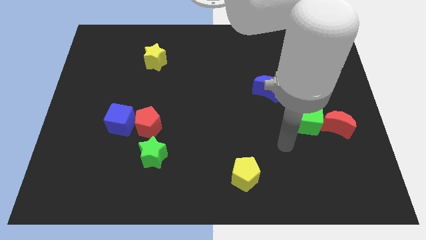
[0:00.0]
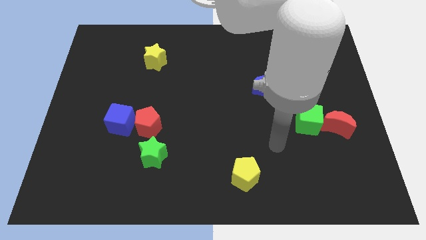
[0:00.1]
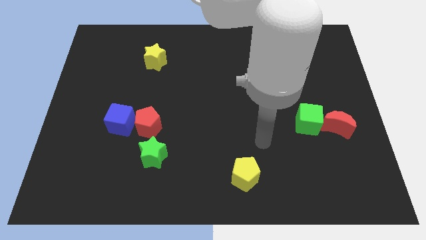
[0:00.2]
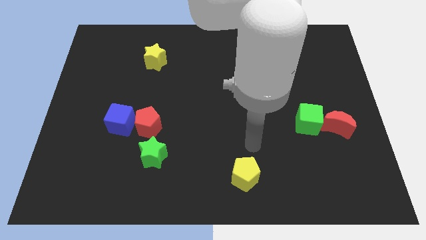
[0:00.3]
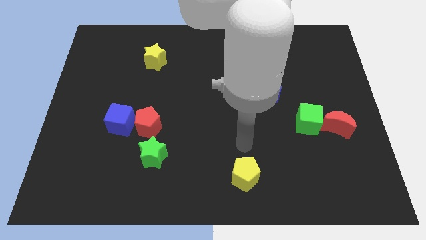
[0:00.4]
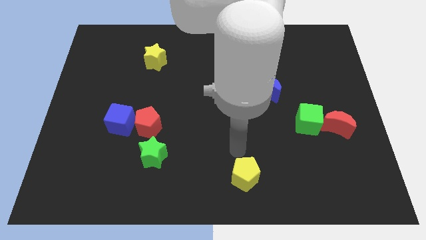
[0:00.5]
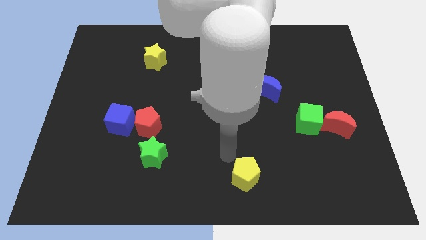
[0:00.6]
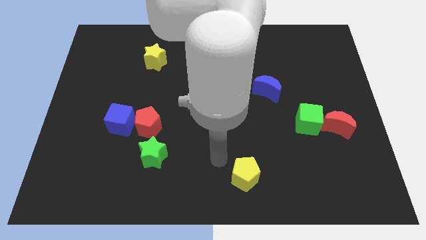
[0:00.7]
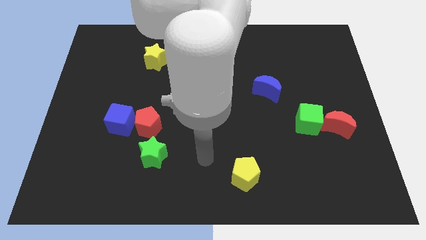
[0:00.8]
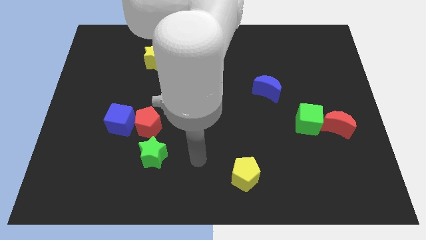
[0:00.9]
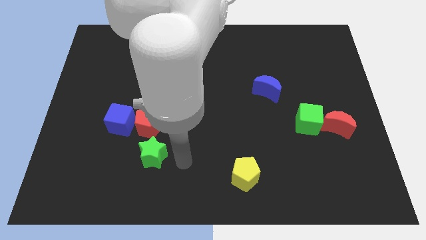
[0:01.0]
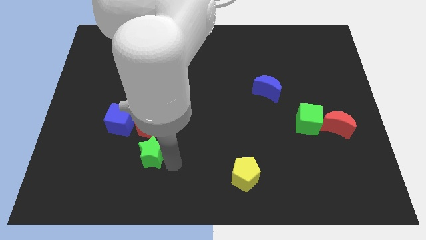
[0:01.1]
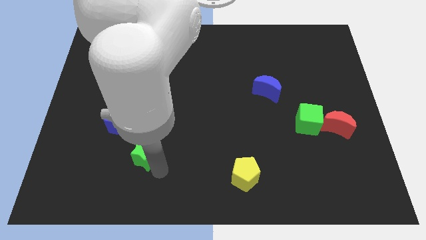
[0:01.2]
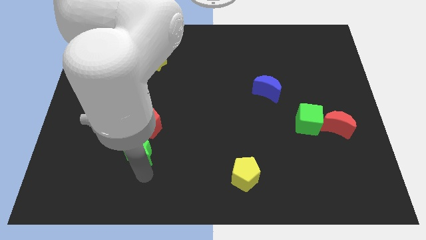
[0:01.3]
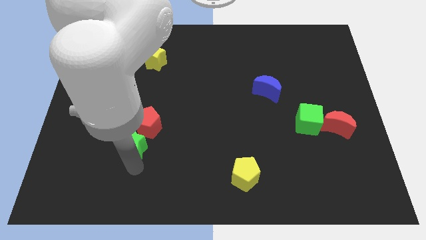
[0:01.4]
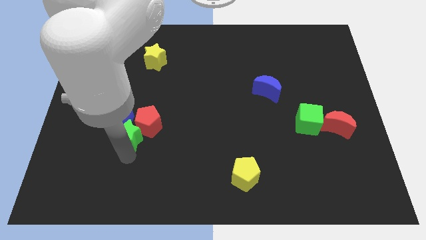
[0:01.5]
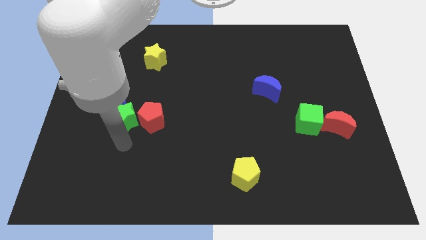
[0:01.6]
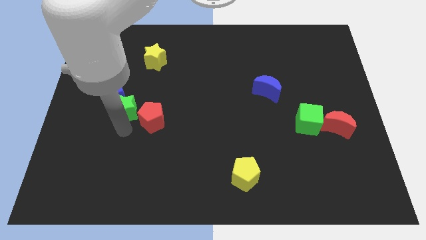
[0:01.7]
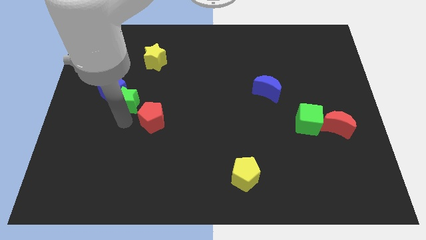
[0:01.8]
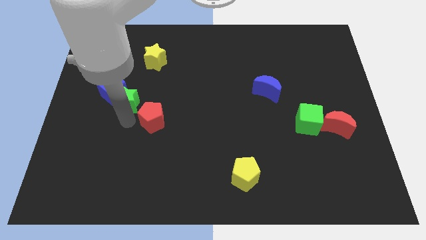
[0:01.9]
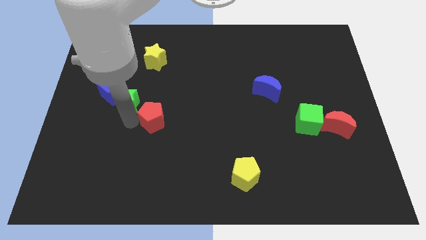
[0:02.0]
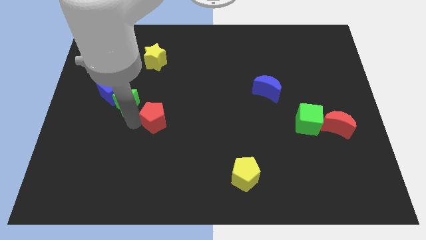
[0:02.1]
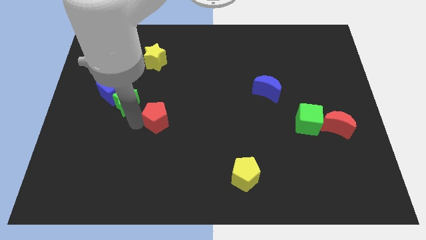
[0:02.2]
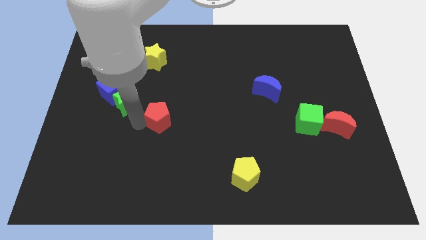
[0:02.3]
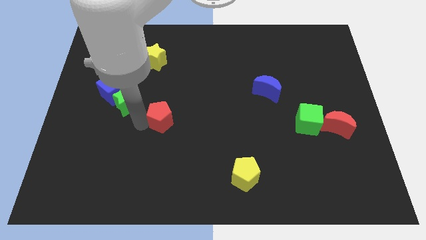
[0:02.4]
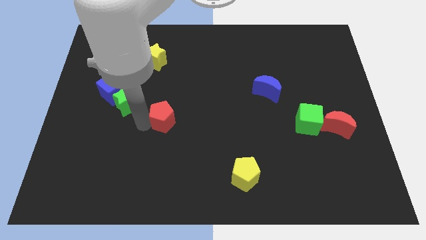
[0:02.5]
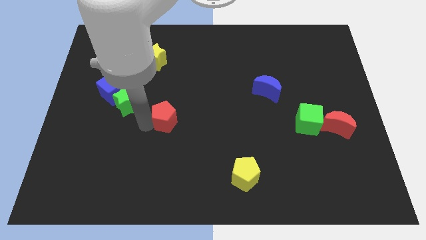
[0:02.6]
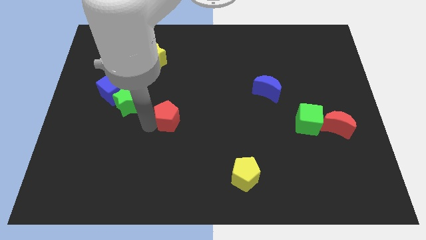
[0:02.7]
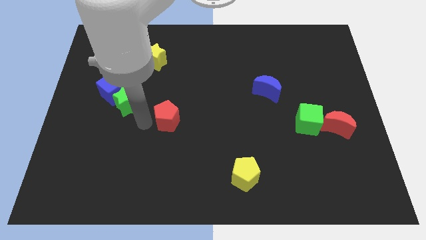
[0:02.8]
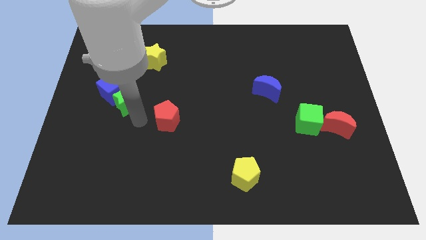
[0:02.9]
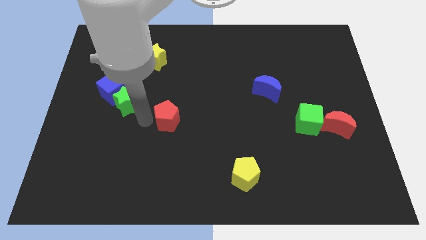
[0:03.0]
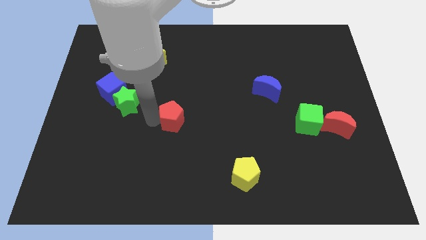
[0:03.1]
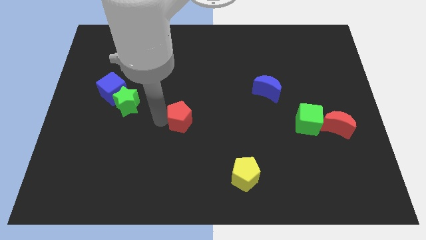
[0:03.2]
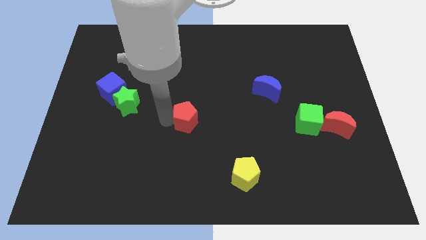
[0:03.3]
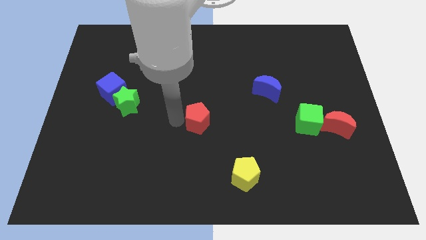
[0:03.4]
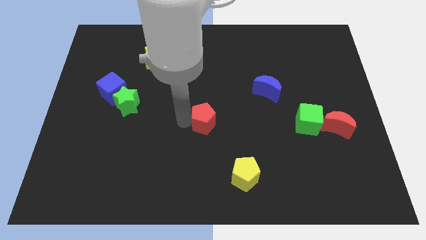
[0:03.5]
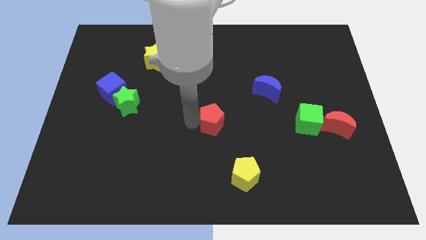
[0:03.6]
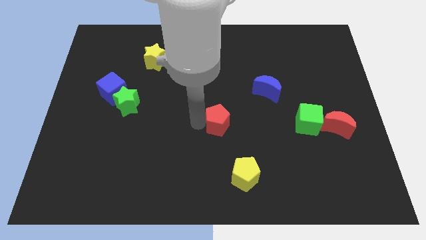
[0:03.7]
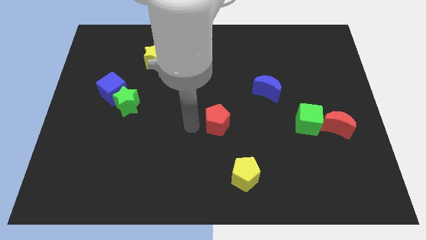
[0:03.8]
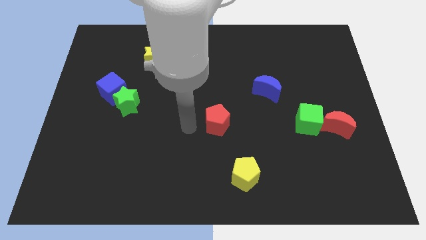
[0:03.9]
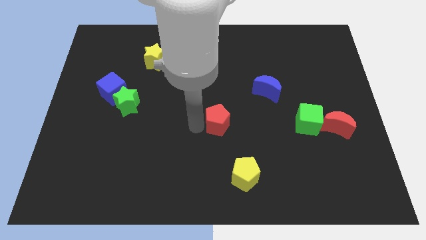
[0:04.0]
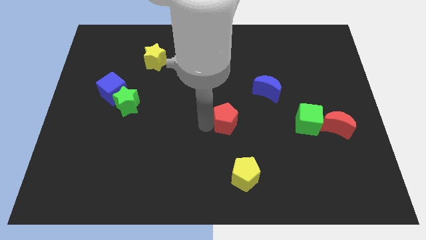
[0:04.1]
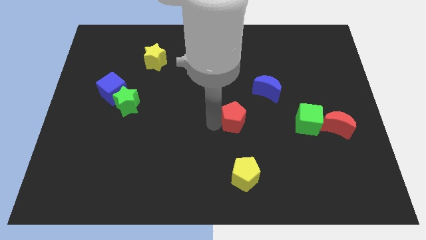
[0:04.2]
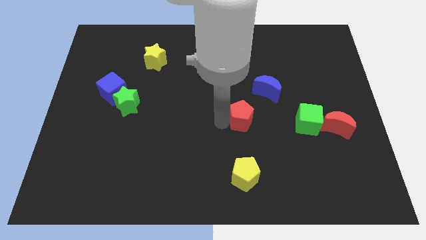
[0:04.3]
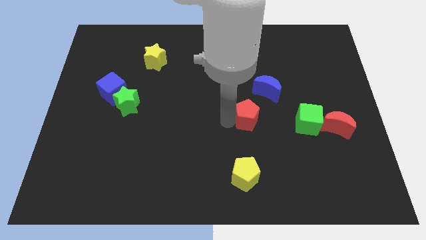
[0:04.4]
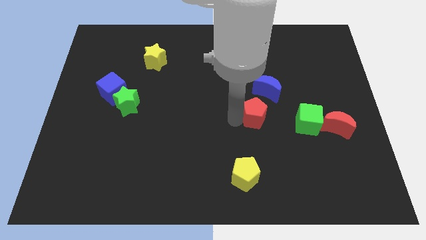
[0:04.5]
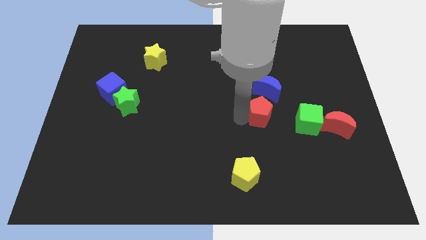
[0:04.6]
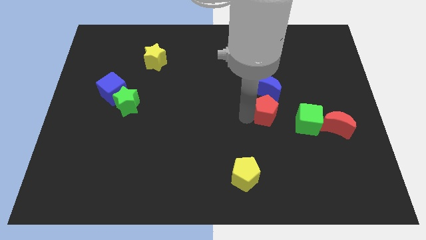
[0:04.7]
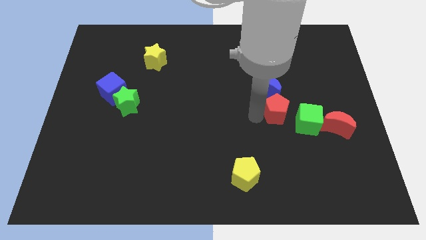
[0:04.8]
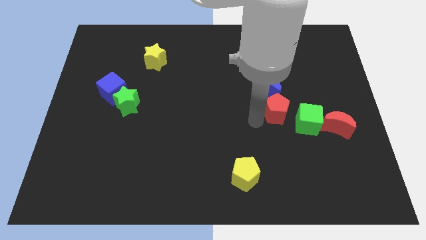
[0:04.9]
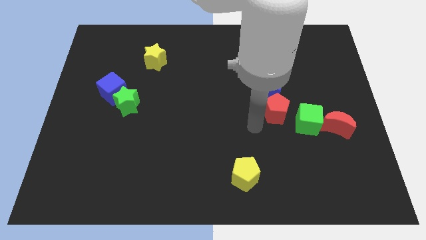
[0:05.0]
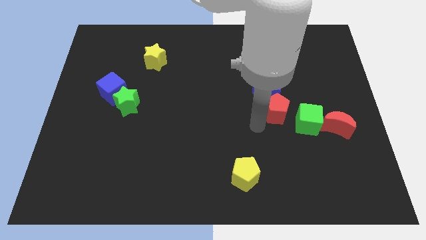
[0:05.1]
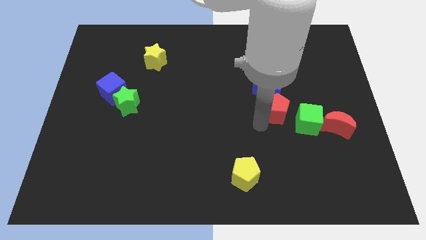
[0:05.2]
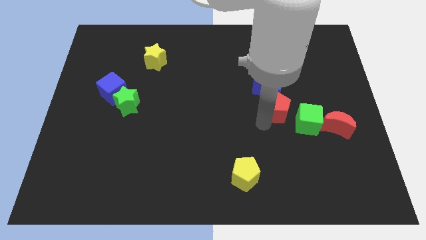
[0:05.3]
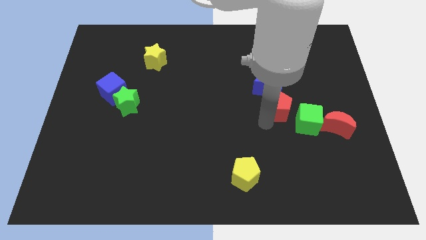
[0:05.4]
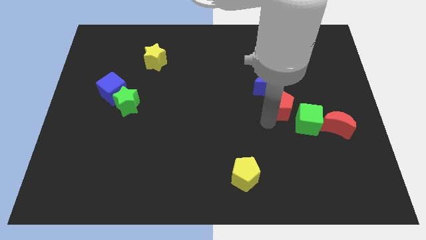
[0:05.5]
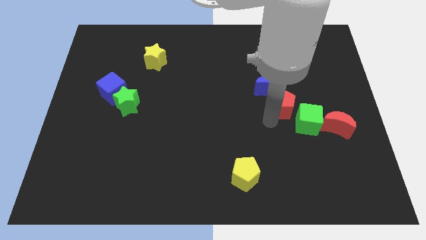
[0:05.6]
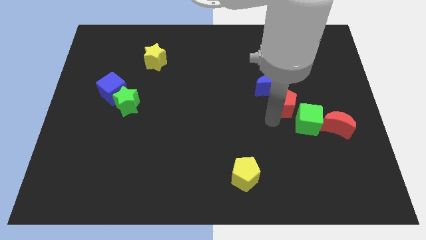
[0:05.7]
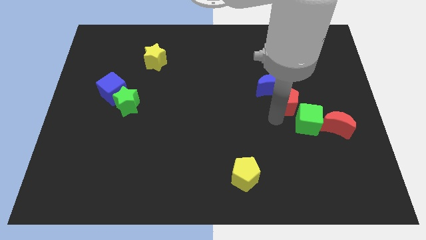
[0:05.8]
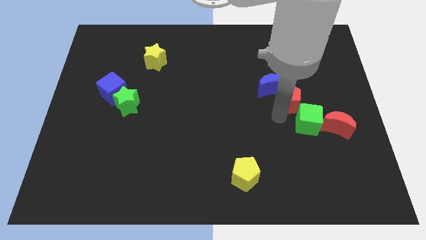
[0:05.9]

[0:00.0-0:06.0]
slide the red pentagon to the right side of the blue moon
